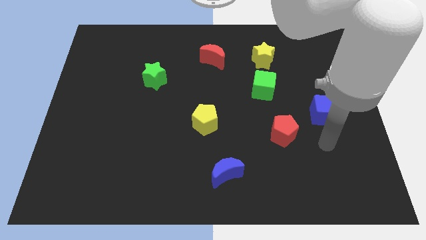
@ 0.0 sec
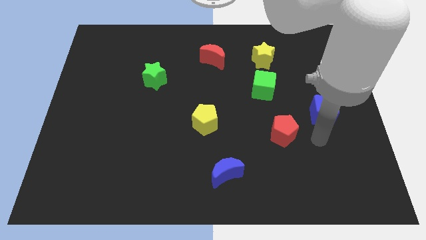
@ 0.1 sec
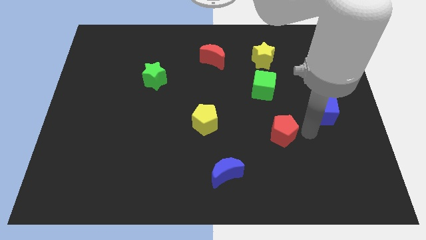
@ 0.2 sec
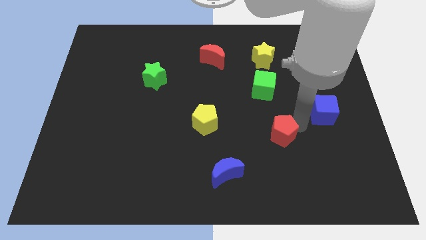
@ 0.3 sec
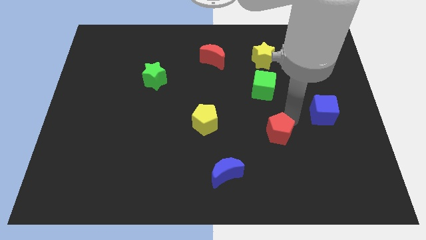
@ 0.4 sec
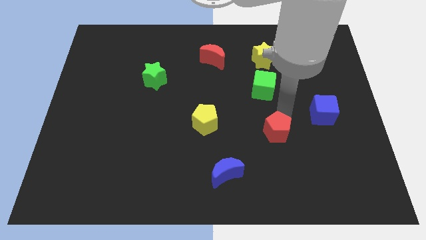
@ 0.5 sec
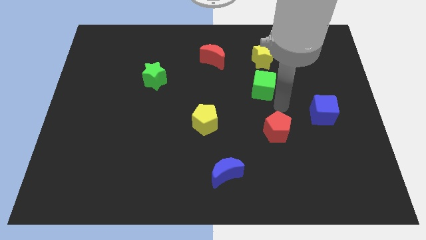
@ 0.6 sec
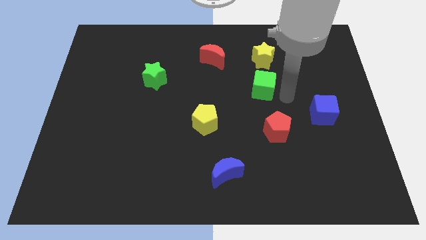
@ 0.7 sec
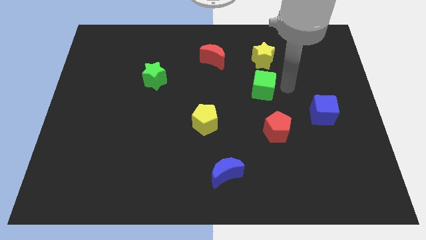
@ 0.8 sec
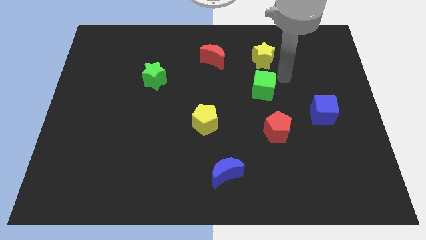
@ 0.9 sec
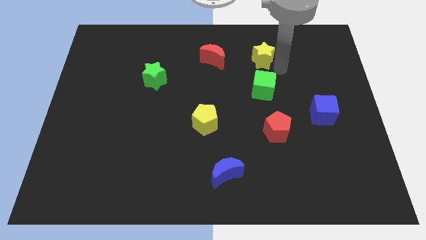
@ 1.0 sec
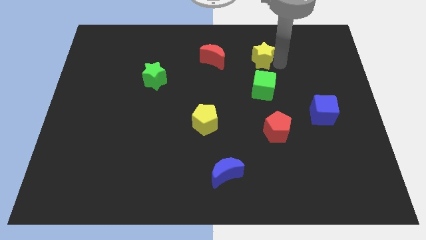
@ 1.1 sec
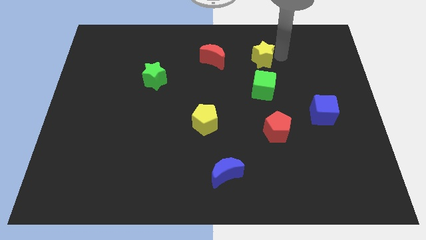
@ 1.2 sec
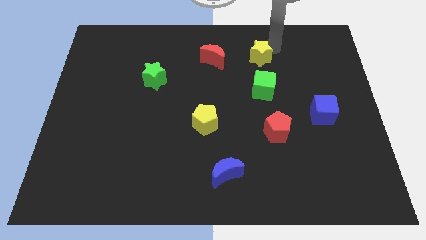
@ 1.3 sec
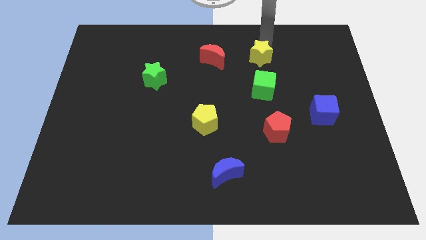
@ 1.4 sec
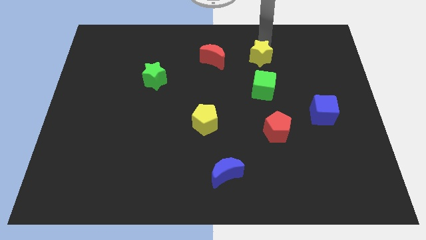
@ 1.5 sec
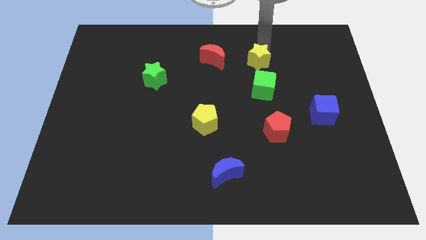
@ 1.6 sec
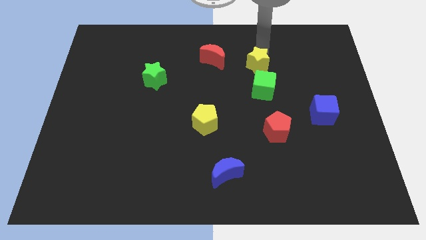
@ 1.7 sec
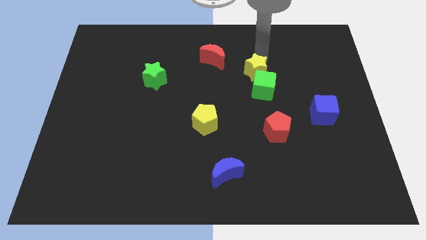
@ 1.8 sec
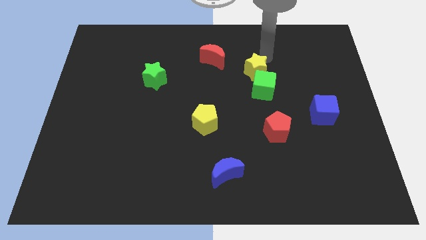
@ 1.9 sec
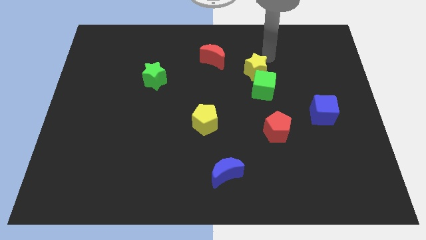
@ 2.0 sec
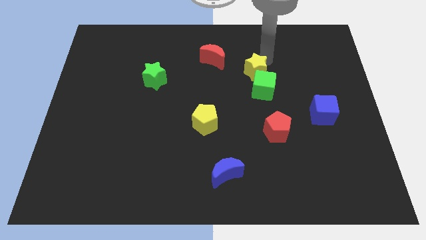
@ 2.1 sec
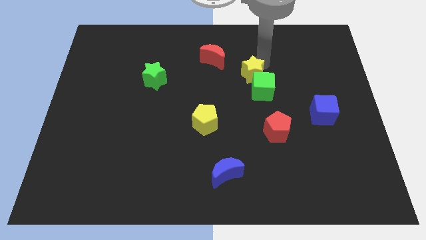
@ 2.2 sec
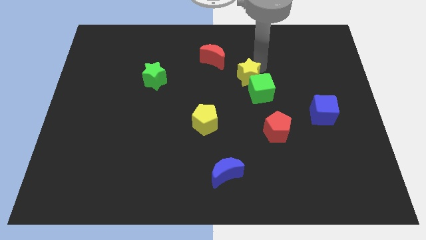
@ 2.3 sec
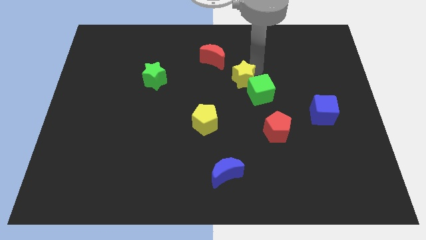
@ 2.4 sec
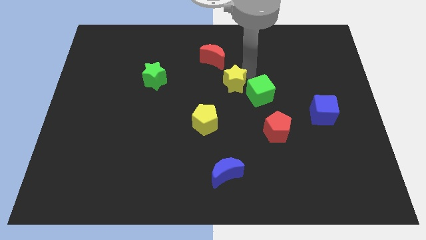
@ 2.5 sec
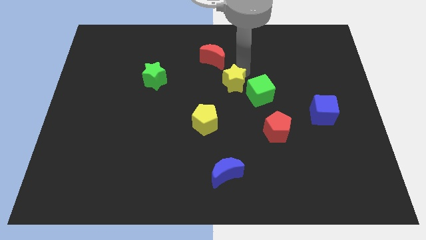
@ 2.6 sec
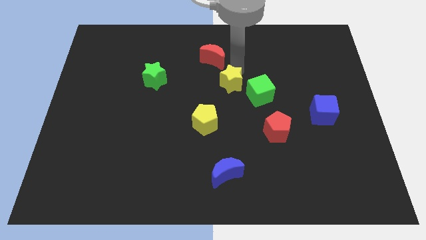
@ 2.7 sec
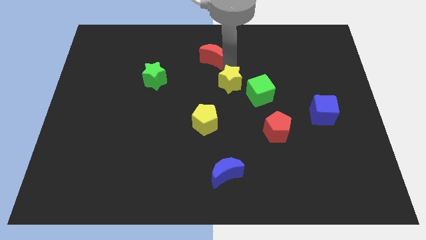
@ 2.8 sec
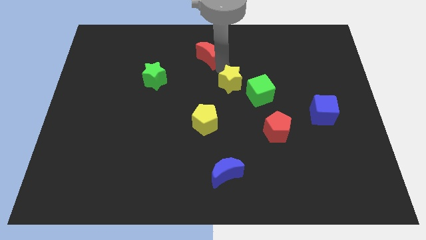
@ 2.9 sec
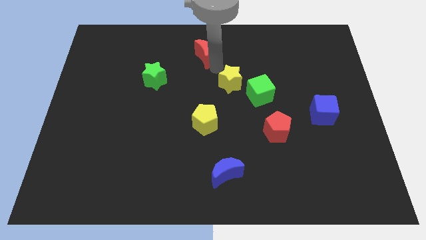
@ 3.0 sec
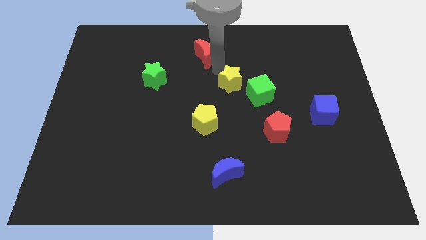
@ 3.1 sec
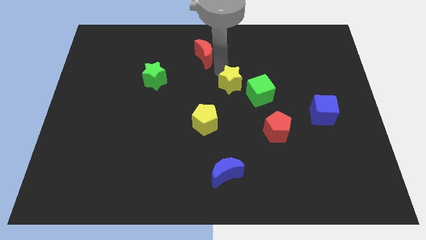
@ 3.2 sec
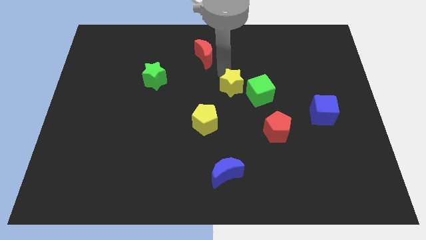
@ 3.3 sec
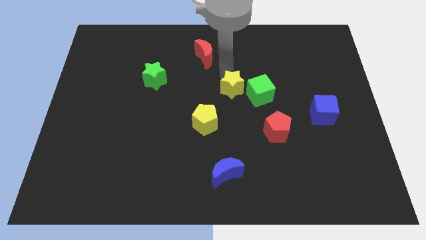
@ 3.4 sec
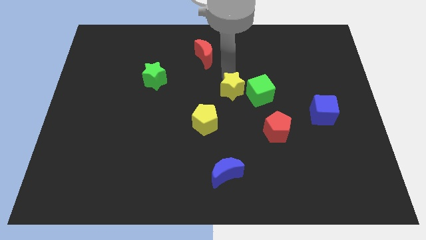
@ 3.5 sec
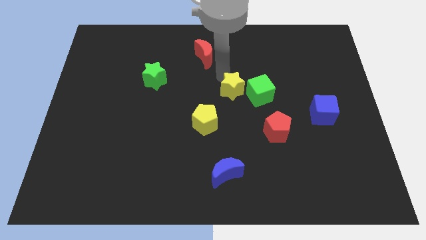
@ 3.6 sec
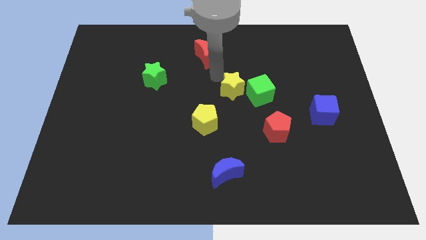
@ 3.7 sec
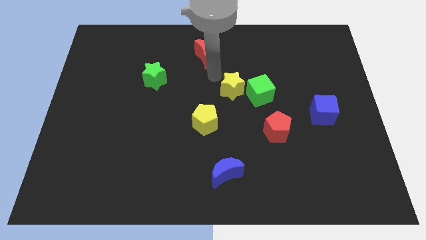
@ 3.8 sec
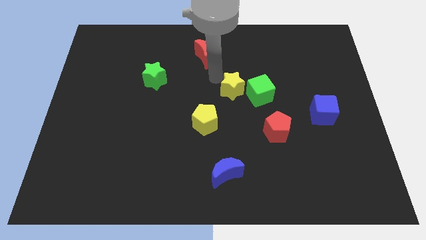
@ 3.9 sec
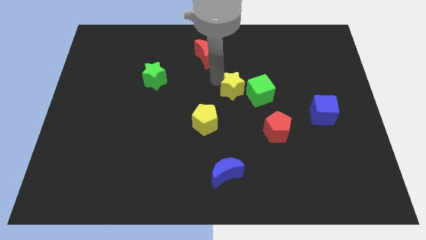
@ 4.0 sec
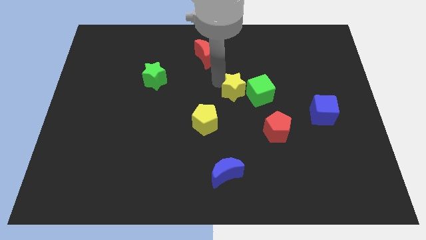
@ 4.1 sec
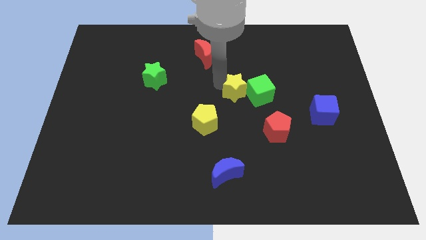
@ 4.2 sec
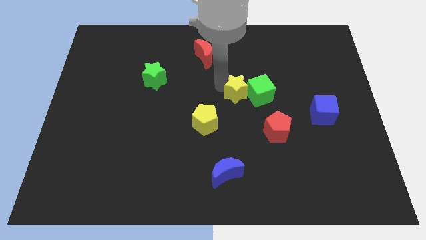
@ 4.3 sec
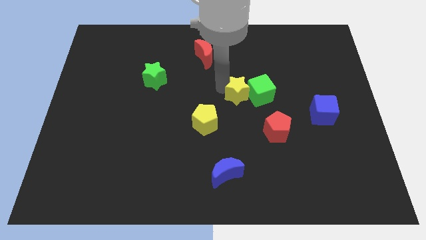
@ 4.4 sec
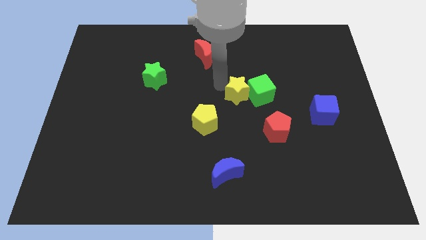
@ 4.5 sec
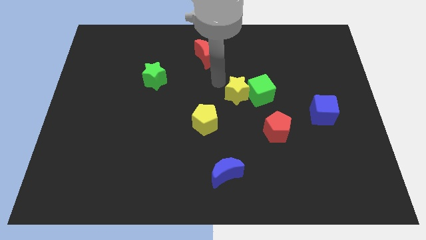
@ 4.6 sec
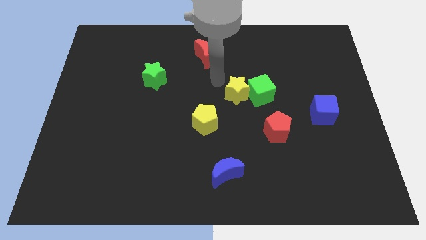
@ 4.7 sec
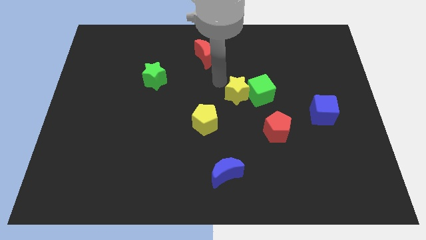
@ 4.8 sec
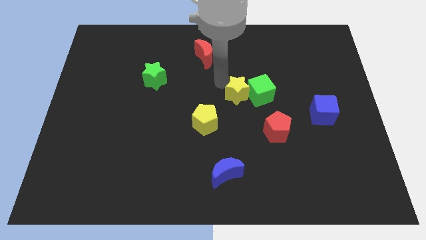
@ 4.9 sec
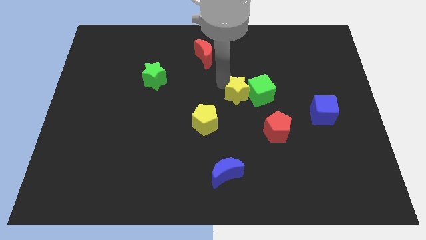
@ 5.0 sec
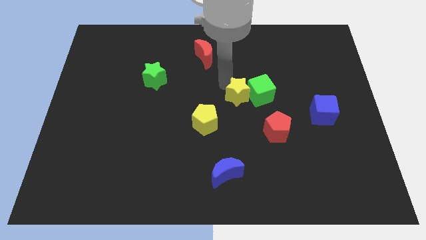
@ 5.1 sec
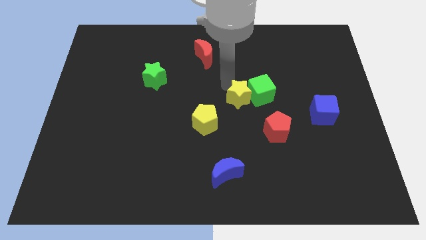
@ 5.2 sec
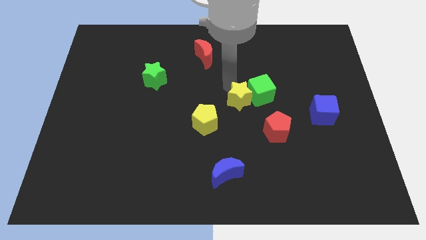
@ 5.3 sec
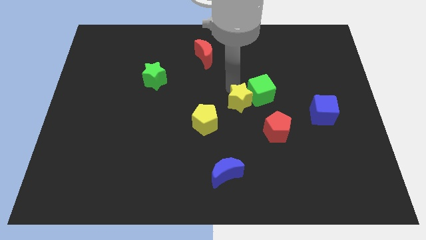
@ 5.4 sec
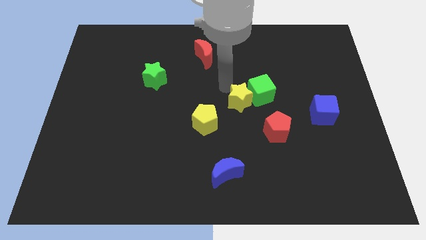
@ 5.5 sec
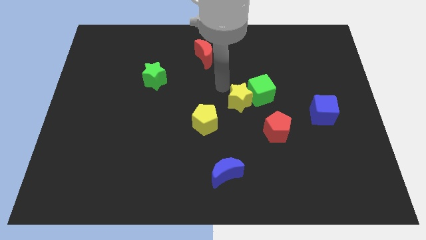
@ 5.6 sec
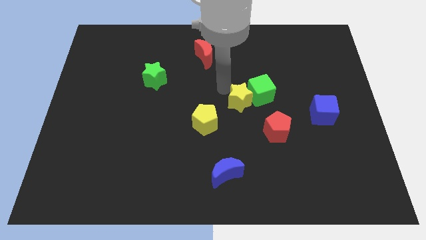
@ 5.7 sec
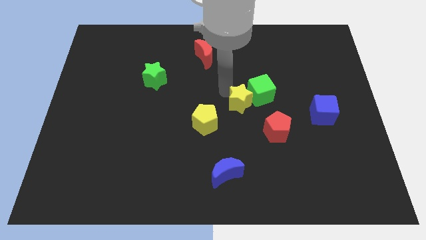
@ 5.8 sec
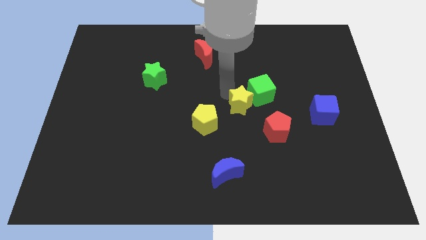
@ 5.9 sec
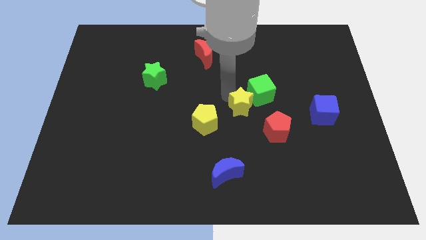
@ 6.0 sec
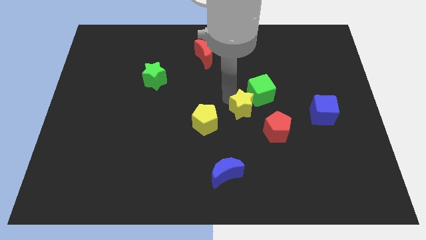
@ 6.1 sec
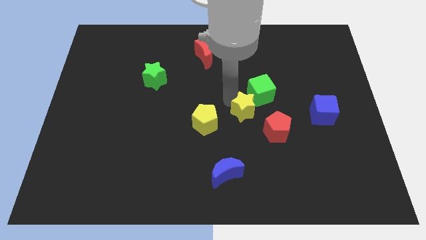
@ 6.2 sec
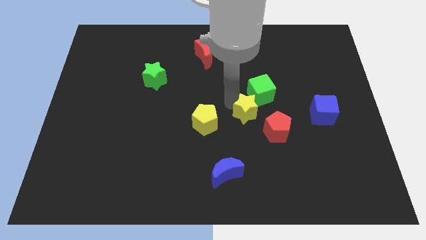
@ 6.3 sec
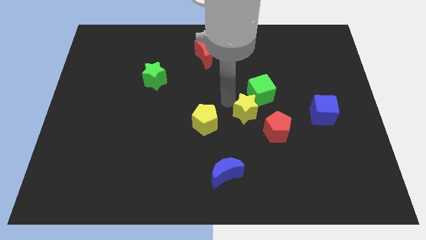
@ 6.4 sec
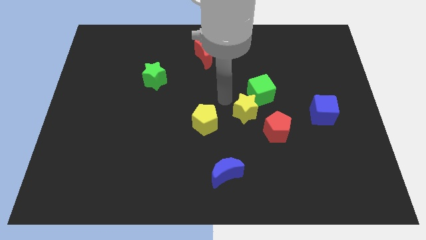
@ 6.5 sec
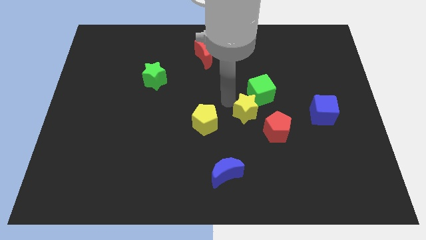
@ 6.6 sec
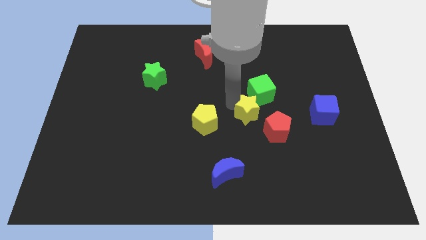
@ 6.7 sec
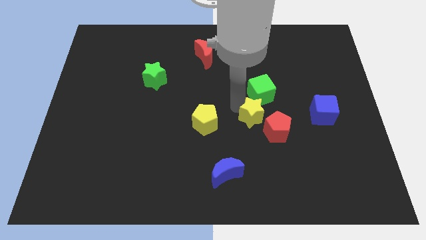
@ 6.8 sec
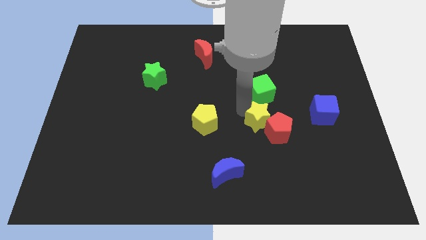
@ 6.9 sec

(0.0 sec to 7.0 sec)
push the yellow star close to the red pentagon
